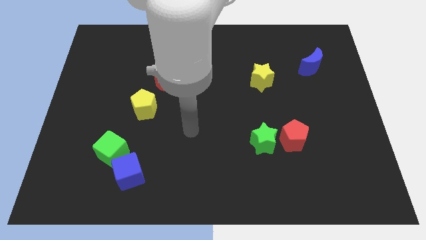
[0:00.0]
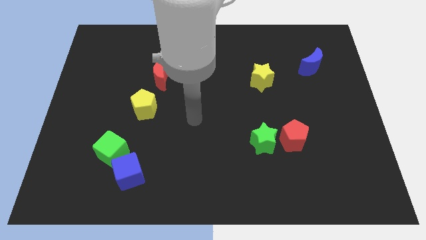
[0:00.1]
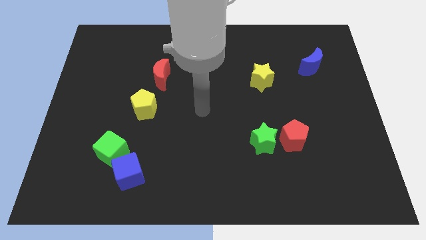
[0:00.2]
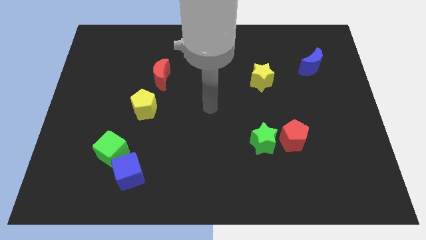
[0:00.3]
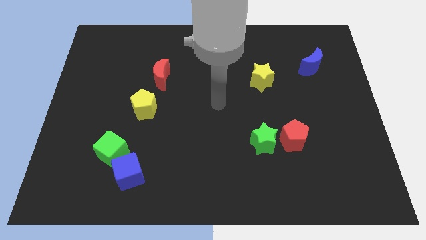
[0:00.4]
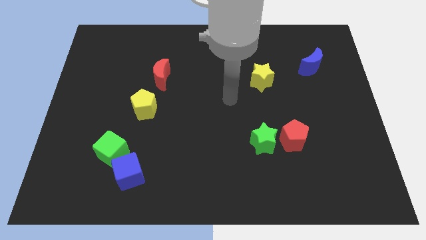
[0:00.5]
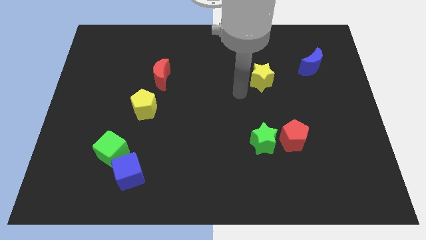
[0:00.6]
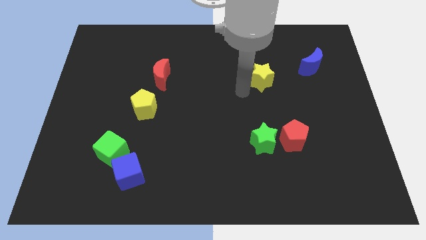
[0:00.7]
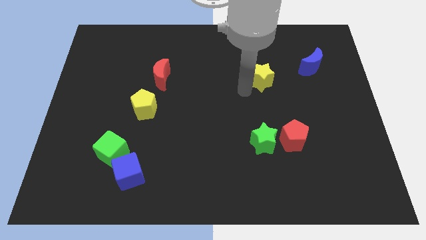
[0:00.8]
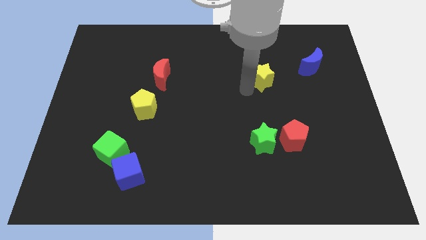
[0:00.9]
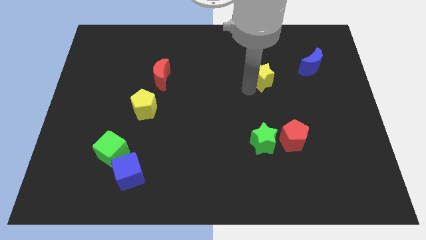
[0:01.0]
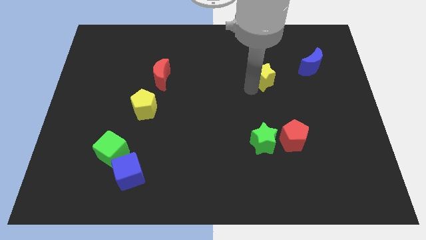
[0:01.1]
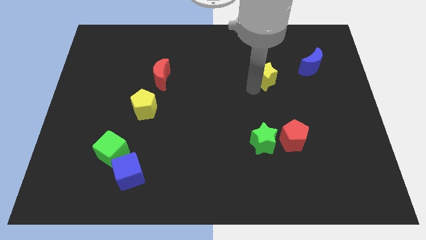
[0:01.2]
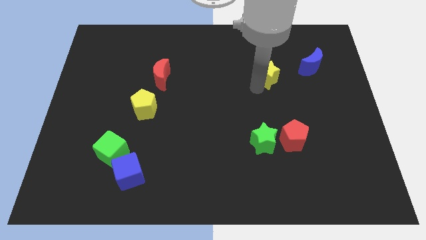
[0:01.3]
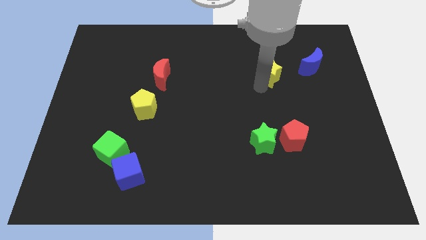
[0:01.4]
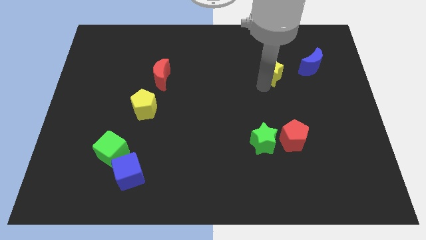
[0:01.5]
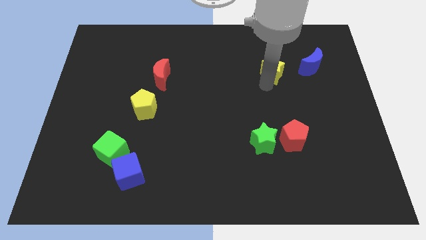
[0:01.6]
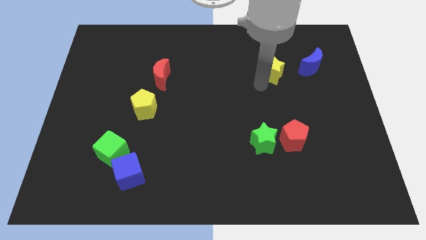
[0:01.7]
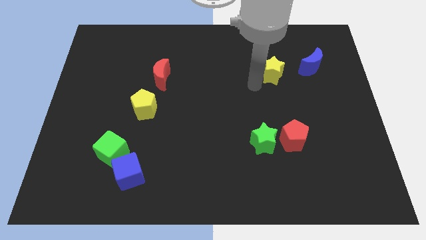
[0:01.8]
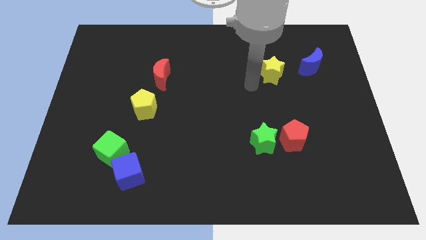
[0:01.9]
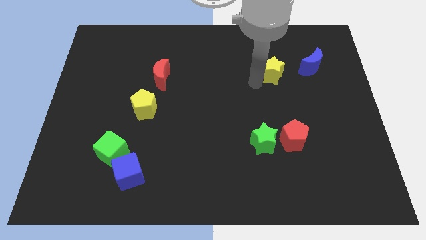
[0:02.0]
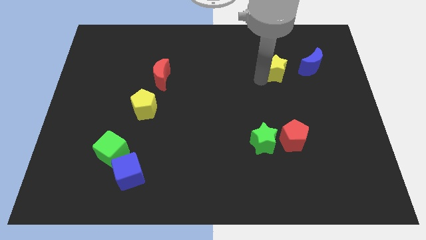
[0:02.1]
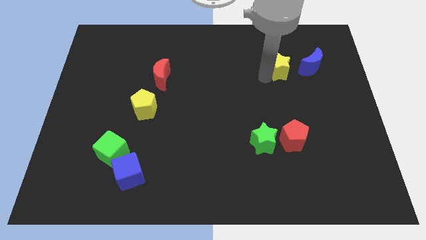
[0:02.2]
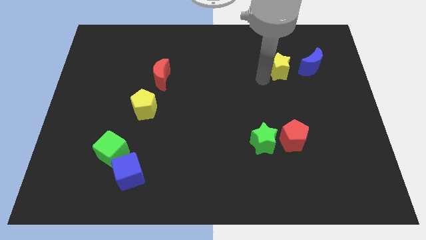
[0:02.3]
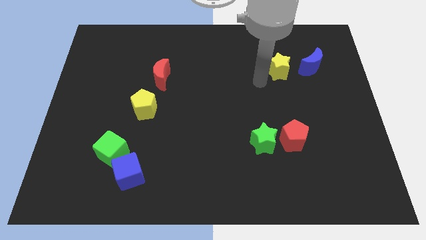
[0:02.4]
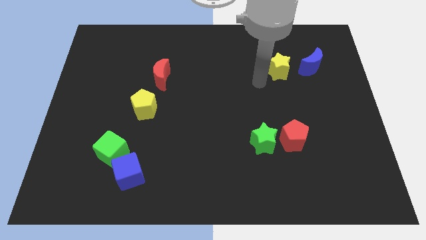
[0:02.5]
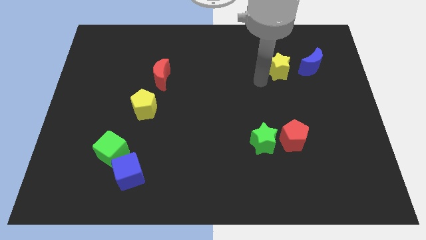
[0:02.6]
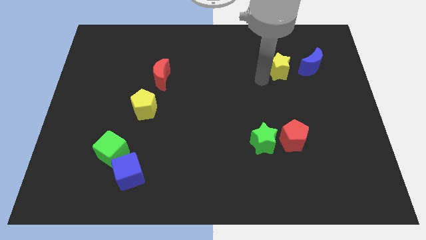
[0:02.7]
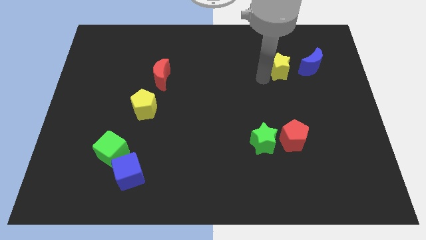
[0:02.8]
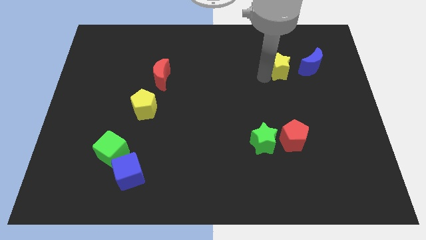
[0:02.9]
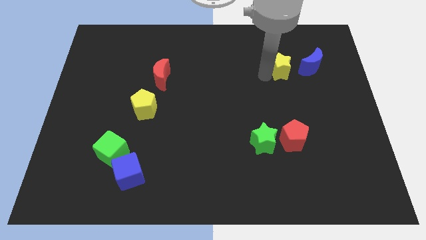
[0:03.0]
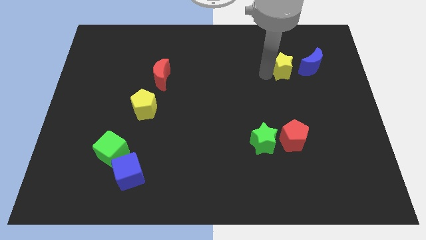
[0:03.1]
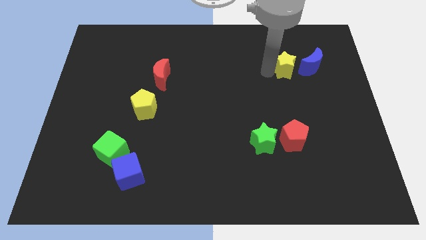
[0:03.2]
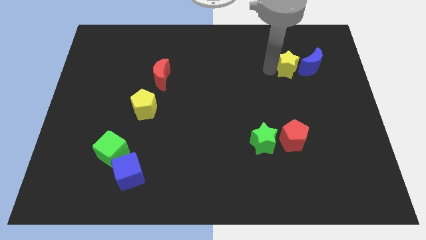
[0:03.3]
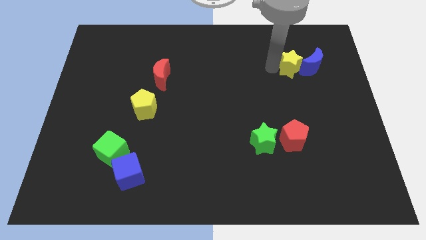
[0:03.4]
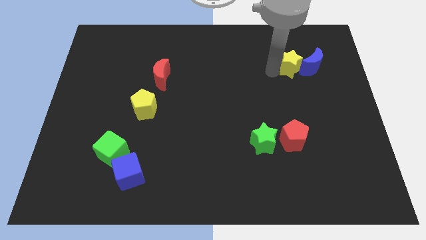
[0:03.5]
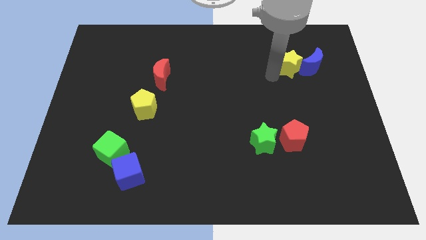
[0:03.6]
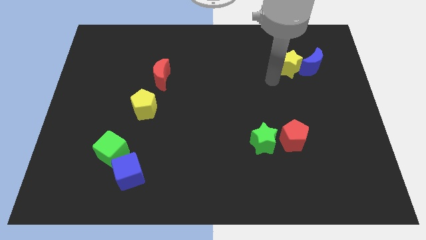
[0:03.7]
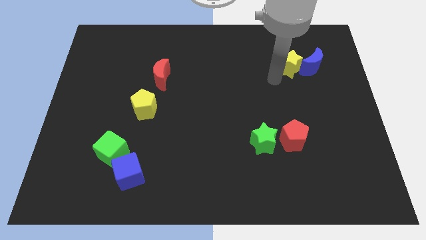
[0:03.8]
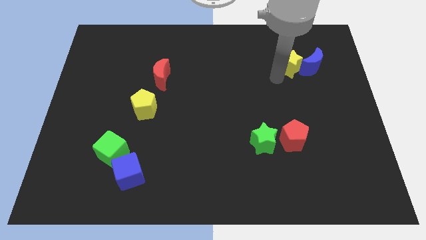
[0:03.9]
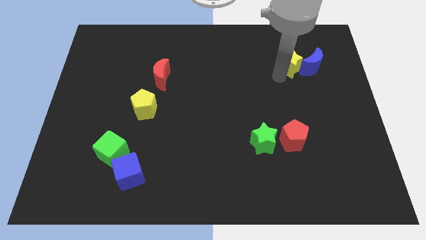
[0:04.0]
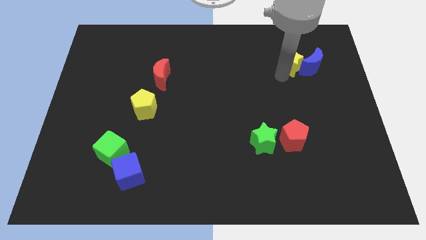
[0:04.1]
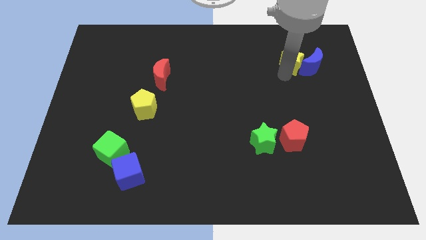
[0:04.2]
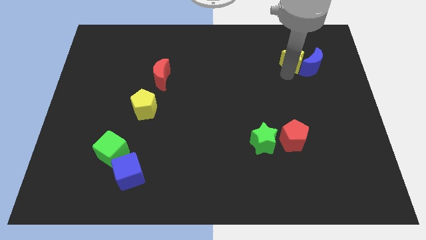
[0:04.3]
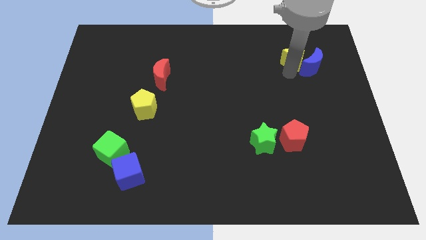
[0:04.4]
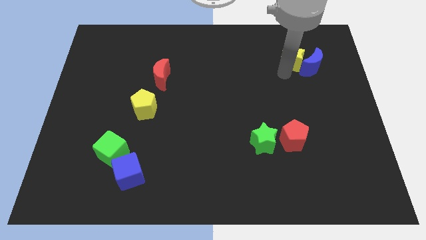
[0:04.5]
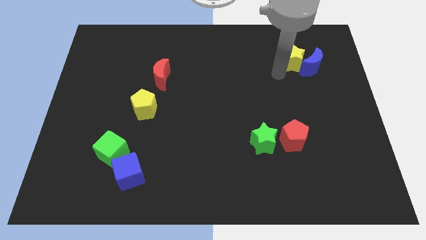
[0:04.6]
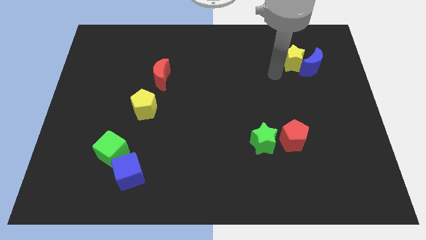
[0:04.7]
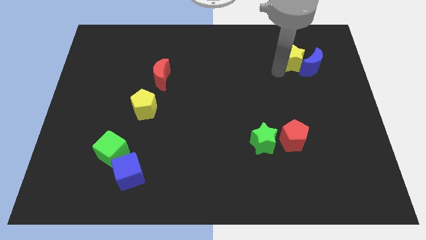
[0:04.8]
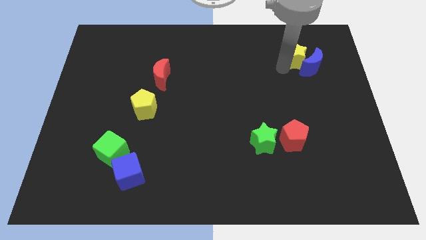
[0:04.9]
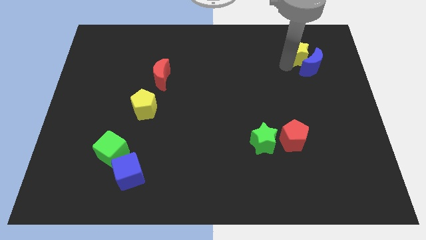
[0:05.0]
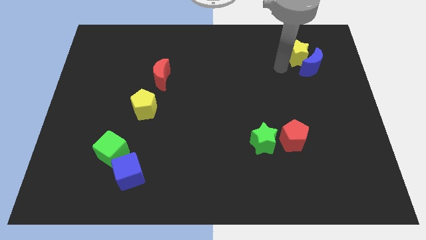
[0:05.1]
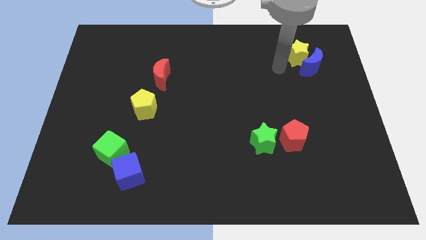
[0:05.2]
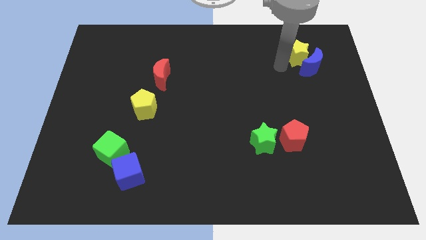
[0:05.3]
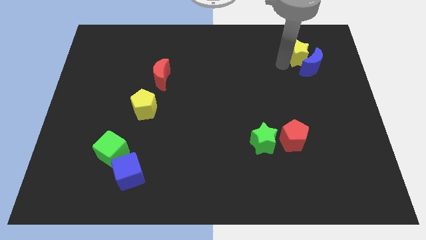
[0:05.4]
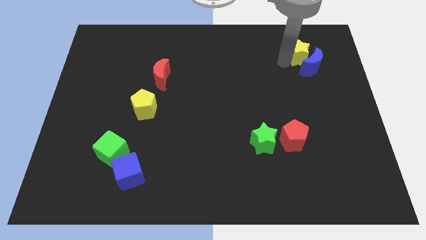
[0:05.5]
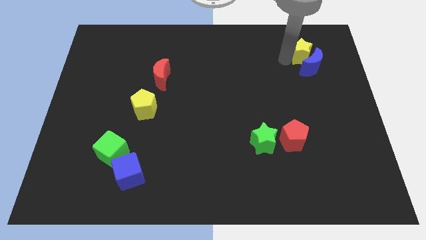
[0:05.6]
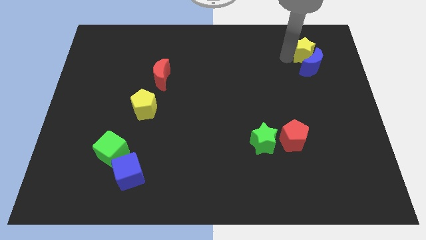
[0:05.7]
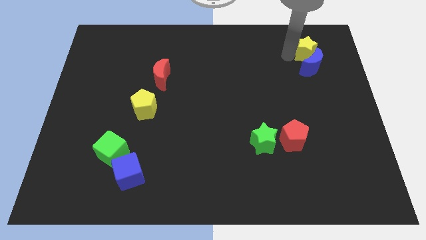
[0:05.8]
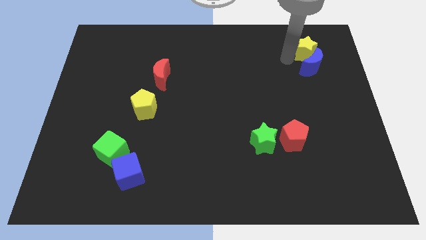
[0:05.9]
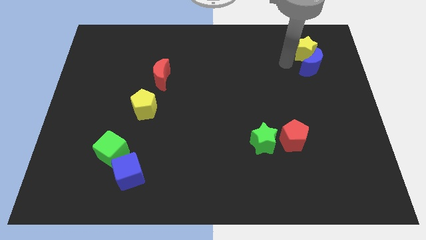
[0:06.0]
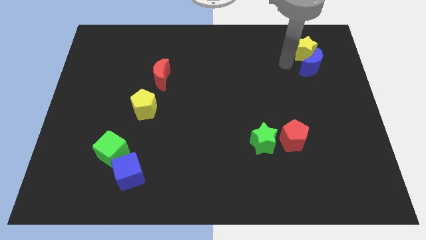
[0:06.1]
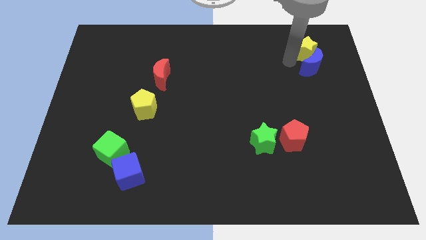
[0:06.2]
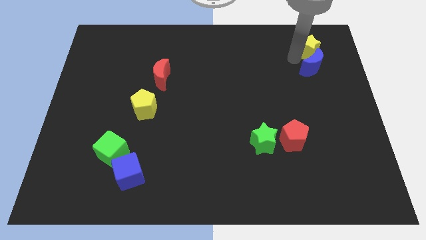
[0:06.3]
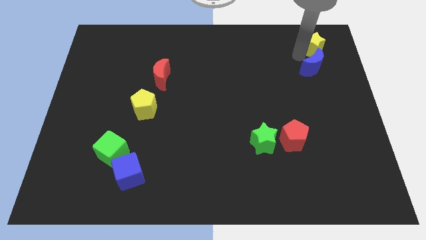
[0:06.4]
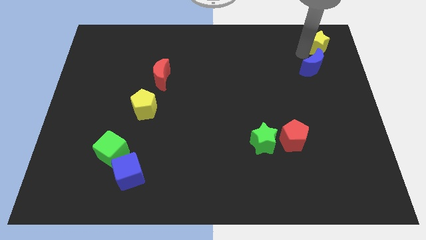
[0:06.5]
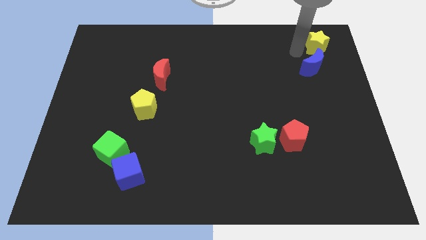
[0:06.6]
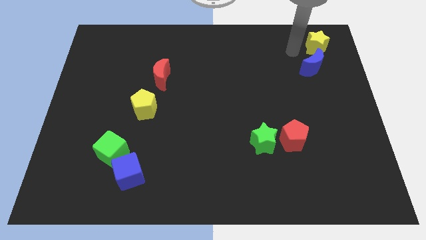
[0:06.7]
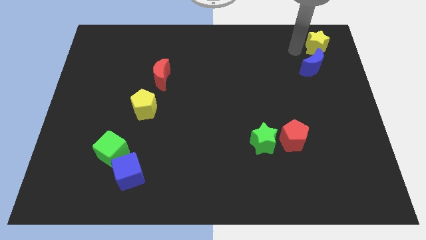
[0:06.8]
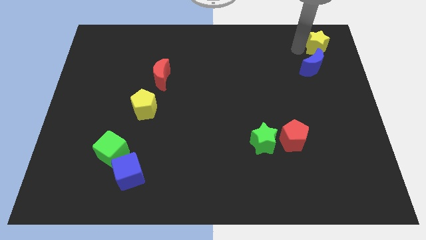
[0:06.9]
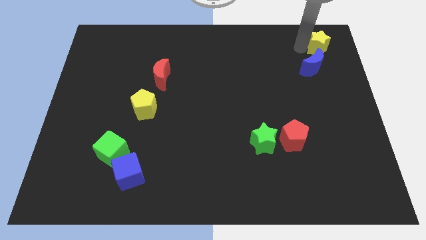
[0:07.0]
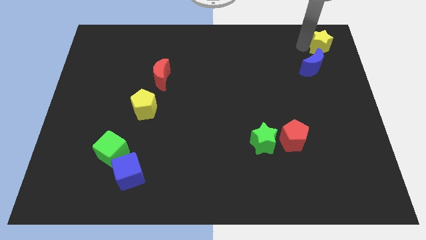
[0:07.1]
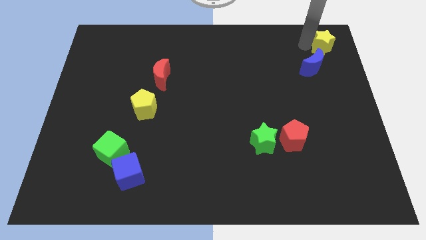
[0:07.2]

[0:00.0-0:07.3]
put the yellow star to the upper right corner
